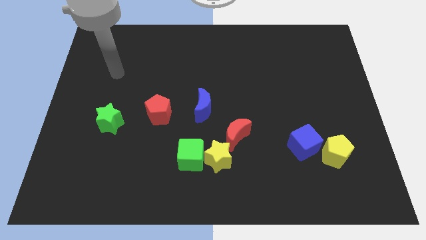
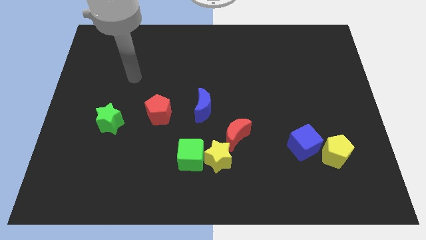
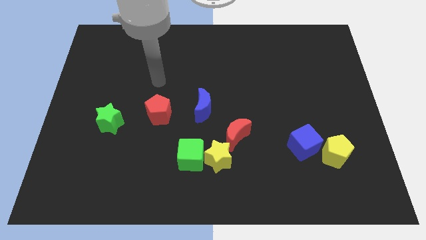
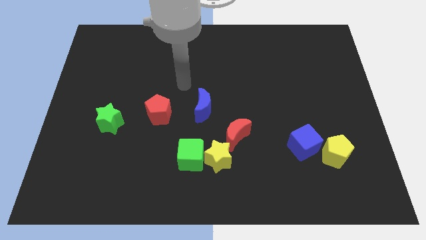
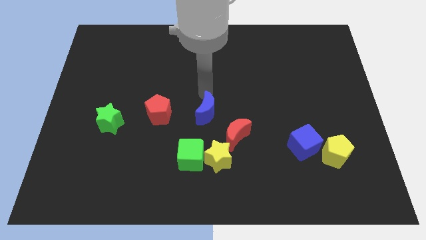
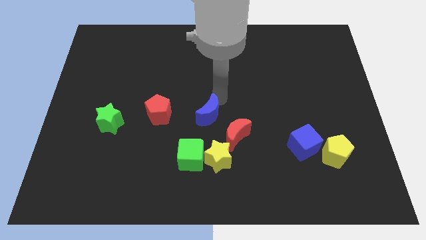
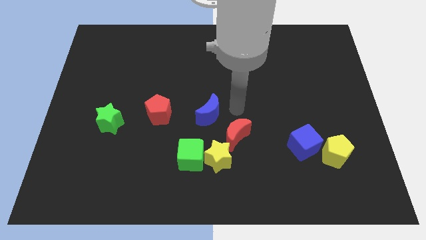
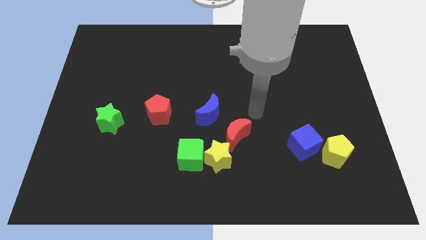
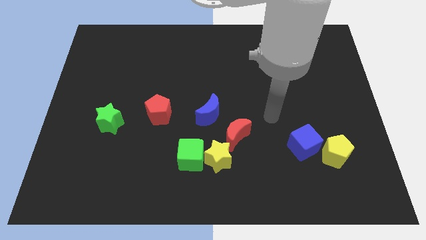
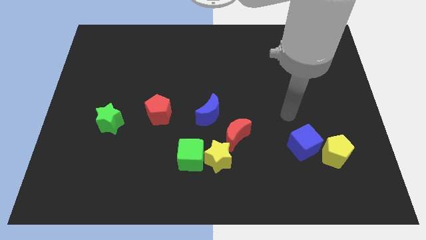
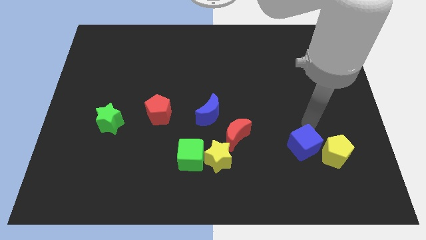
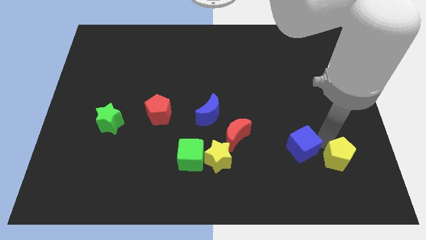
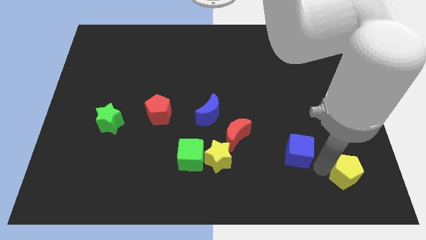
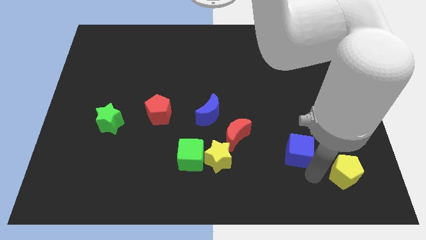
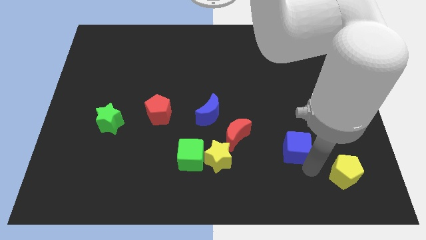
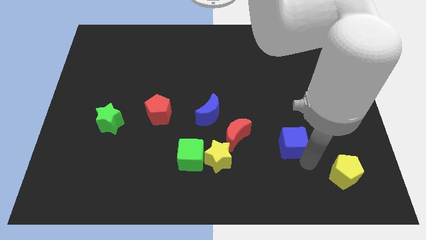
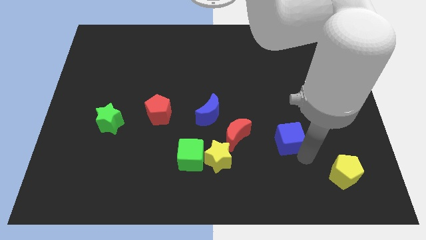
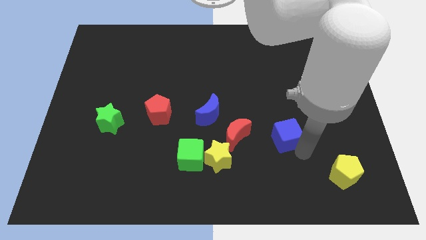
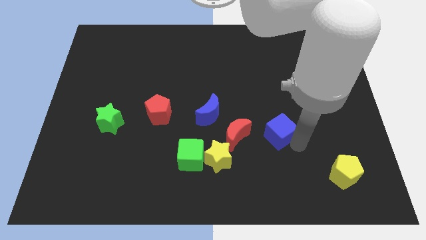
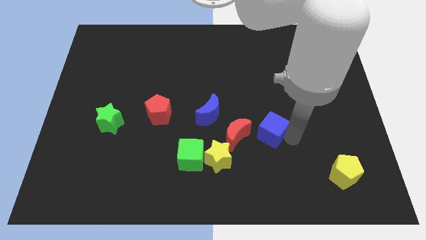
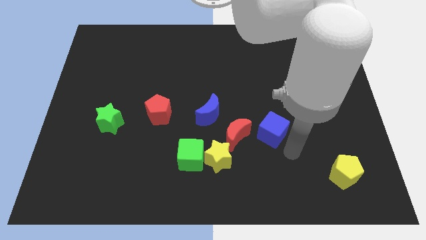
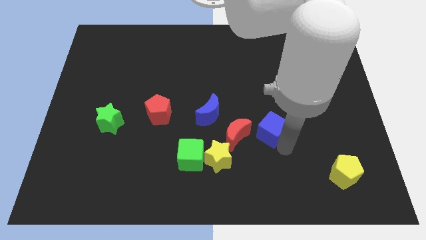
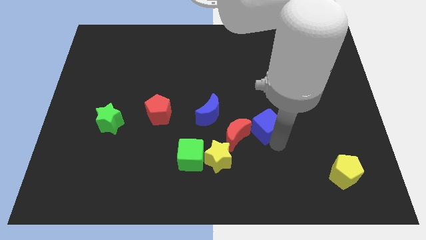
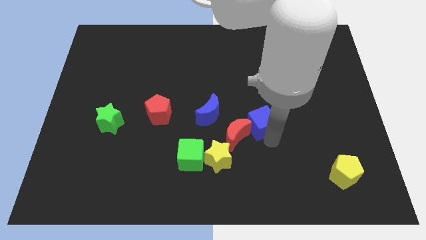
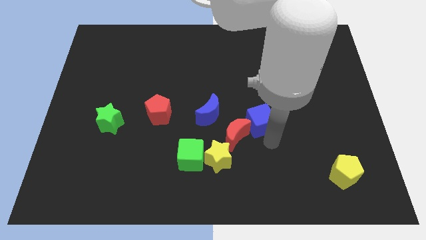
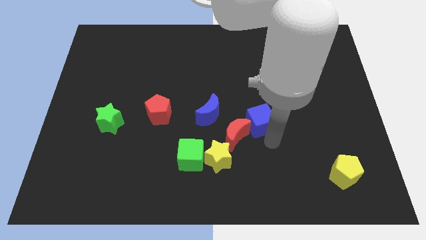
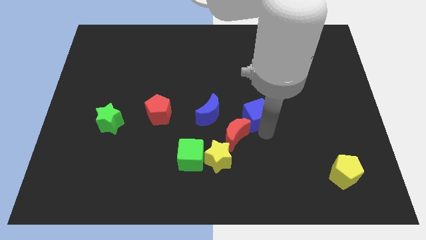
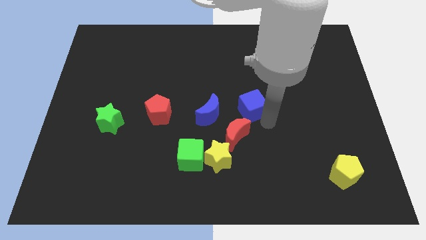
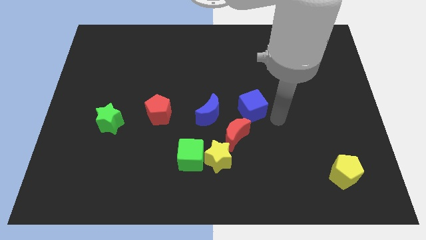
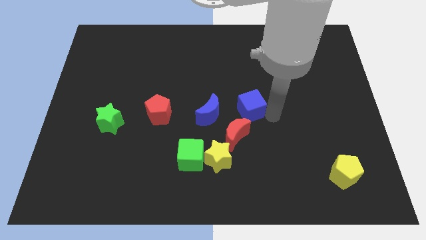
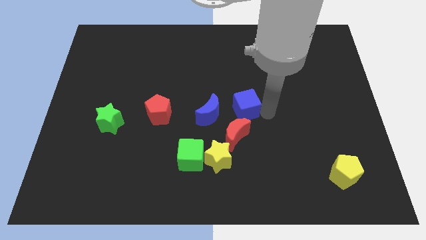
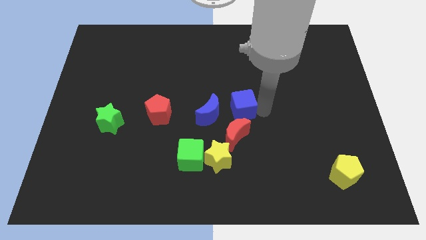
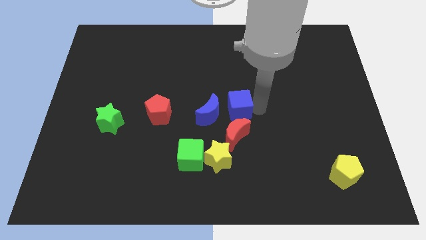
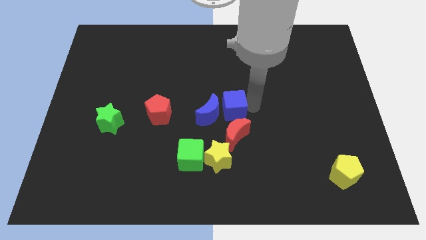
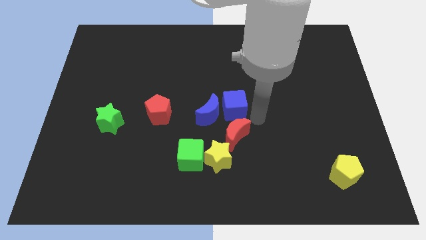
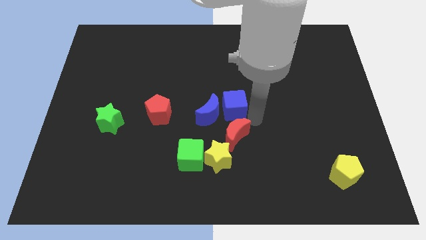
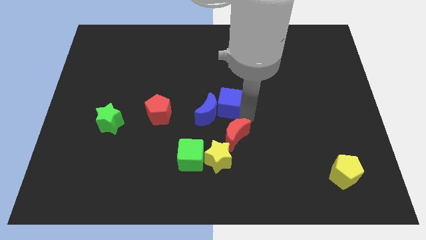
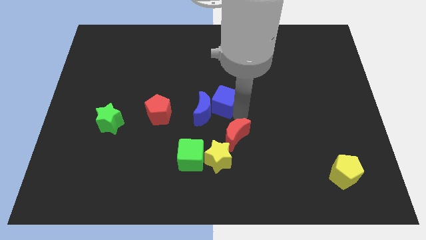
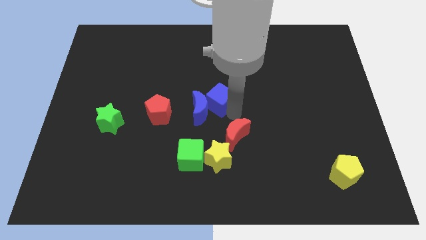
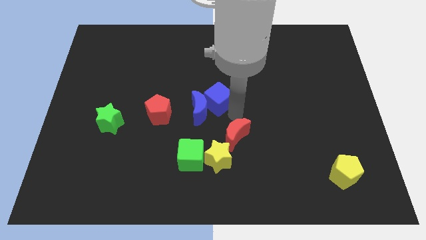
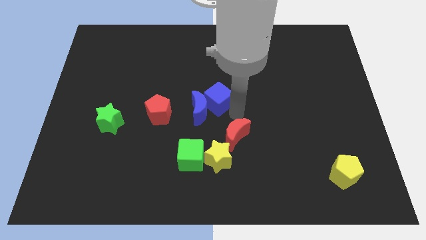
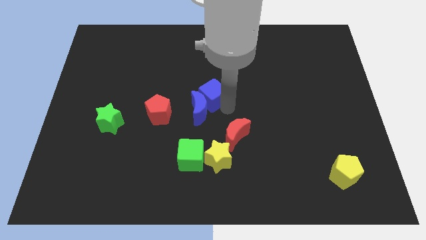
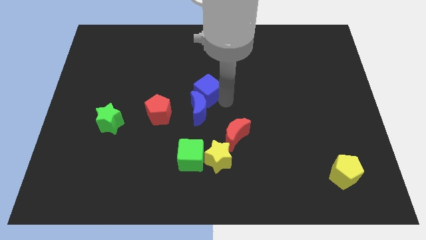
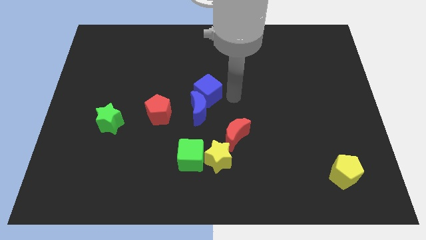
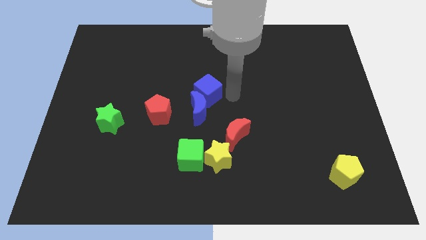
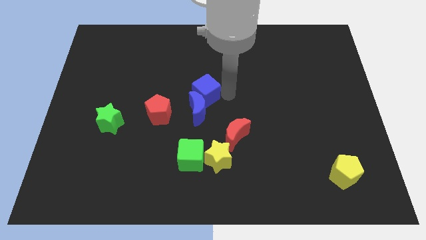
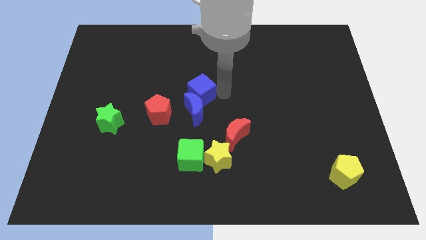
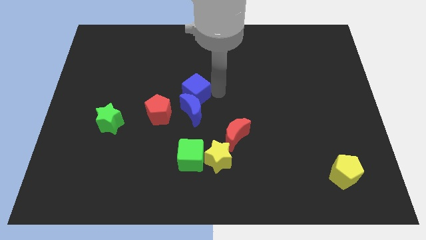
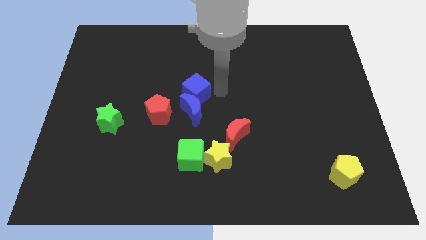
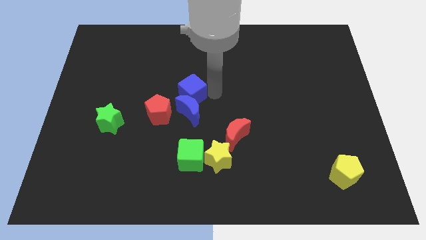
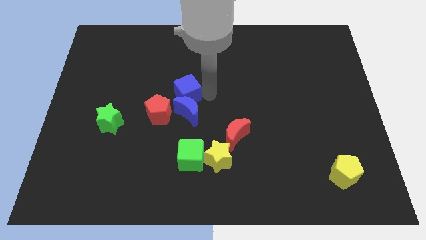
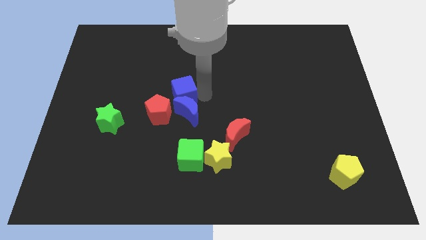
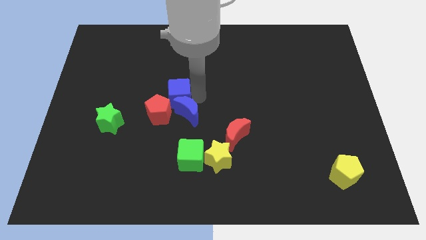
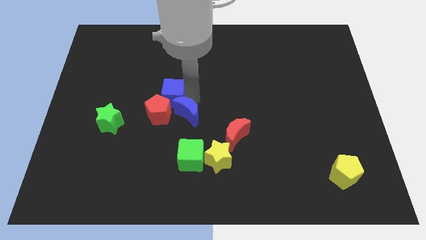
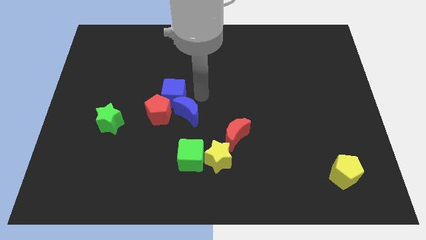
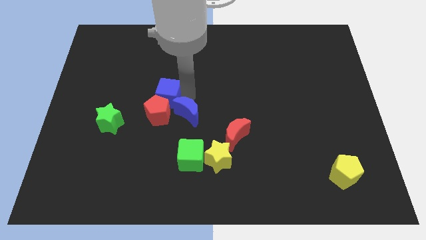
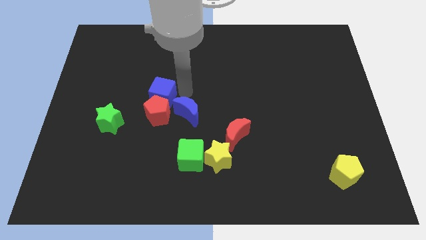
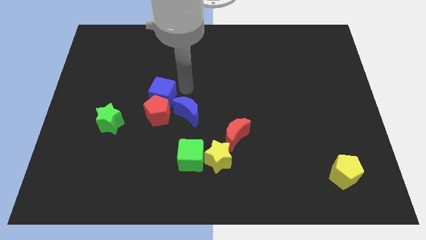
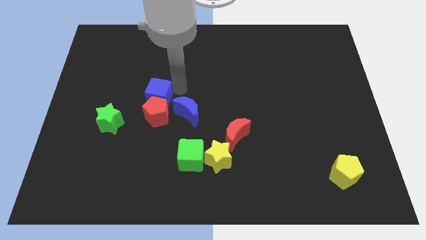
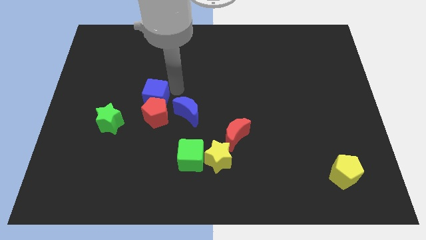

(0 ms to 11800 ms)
slide the blue cube to the top right side of the green star

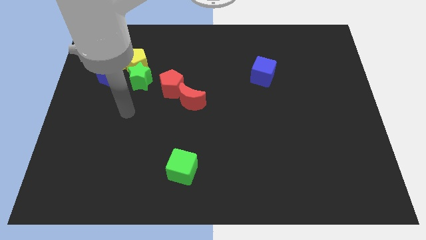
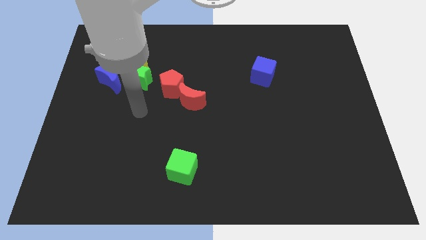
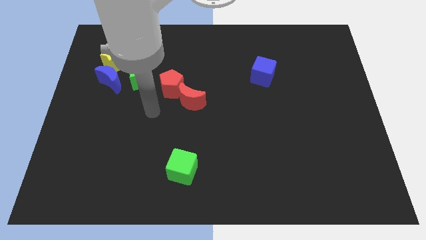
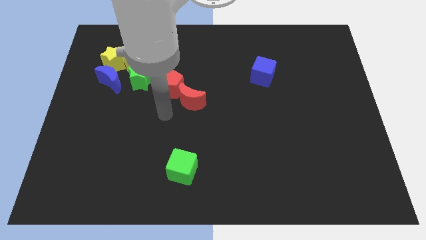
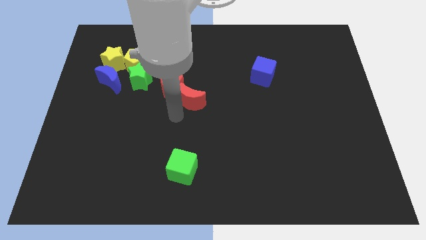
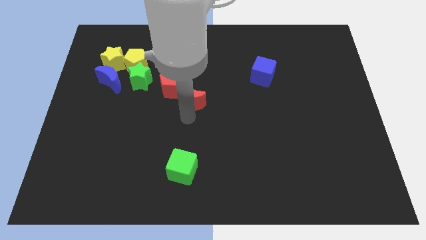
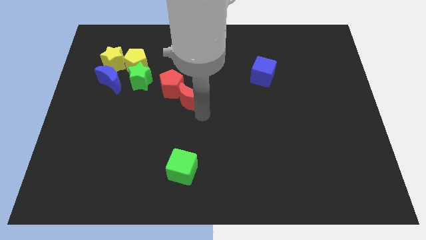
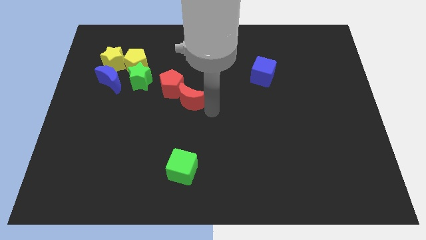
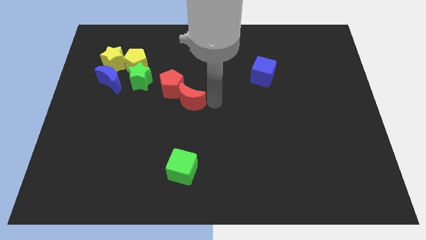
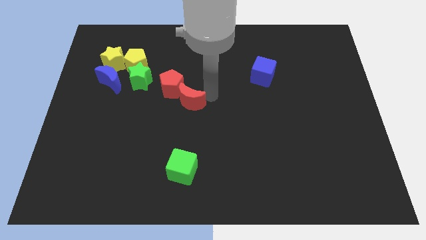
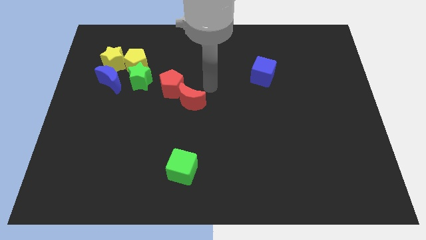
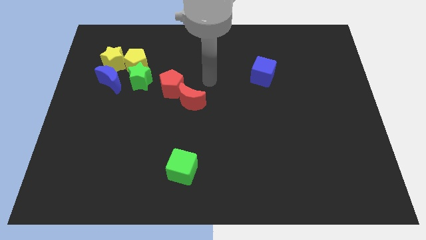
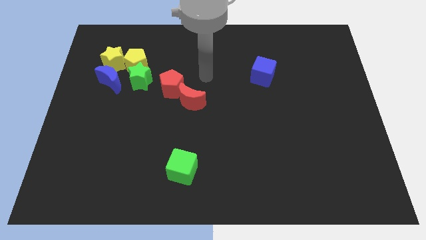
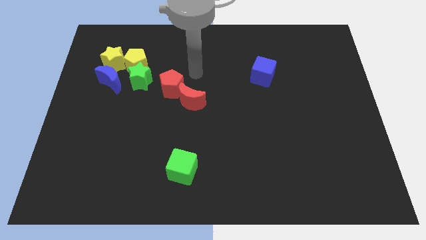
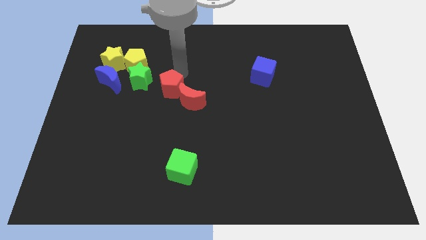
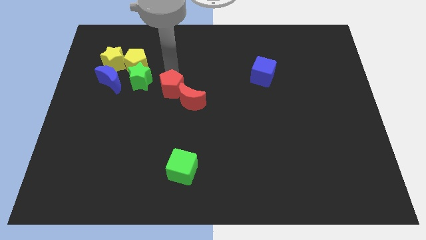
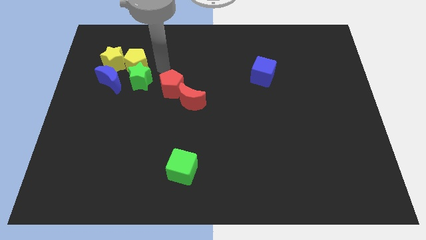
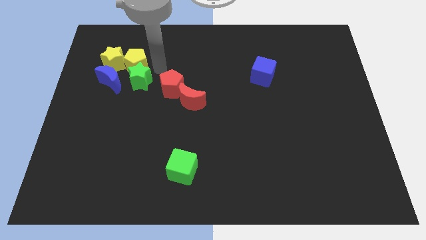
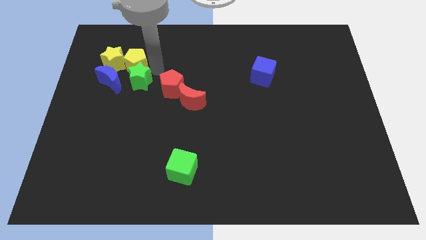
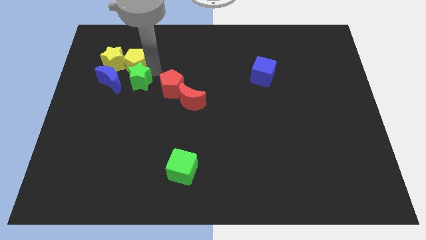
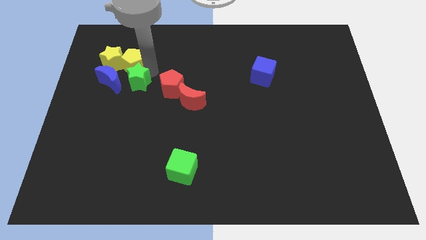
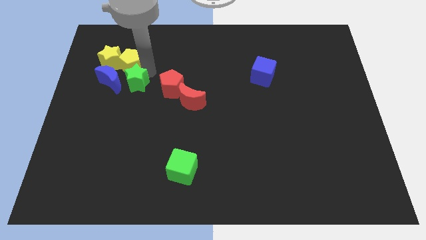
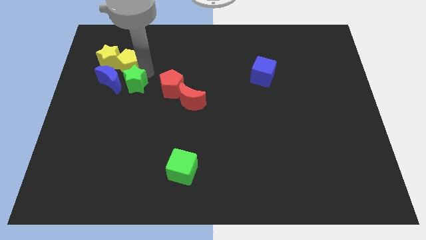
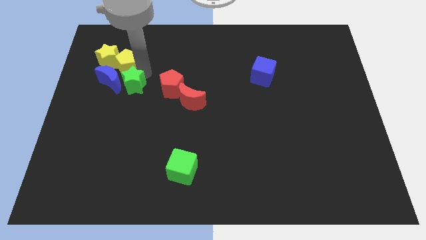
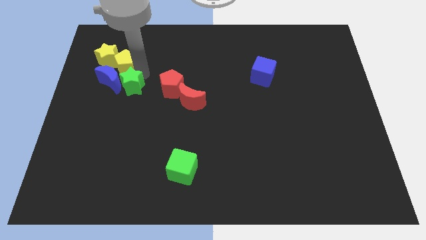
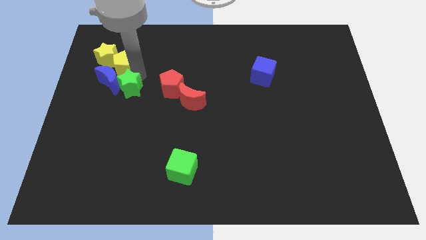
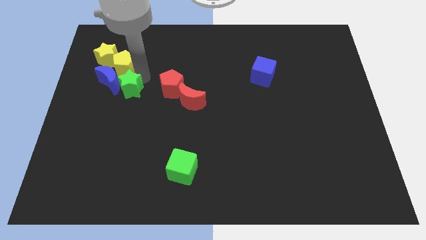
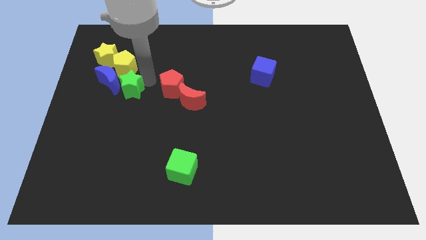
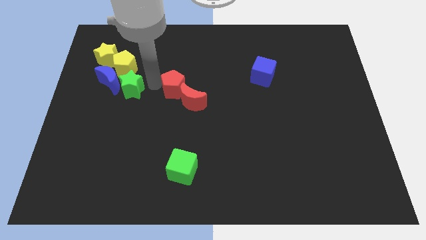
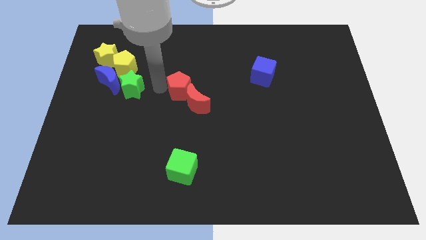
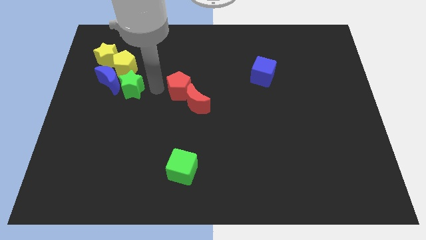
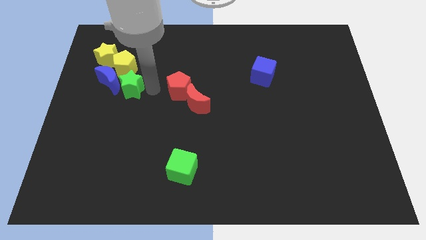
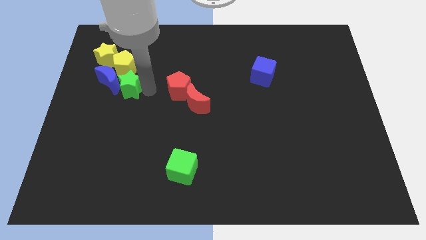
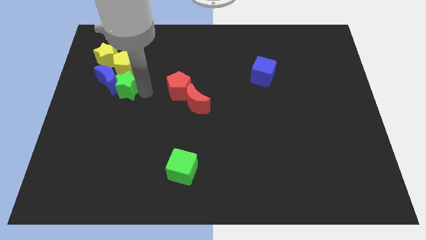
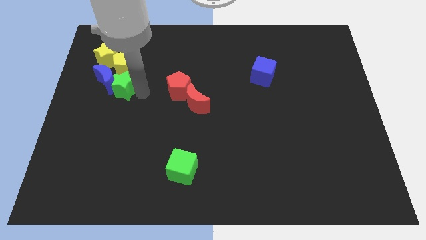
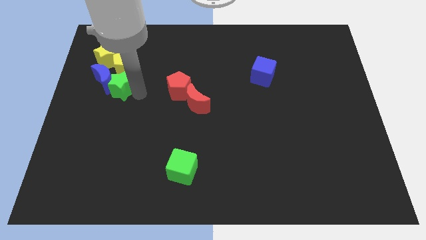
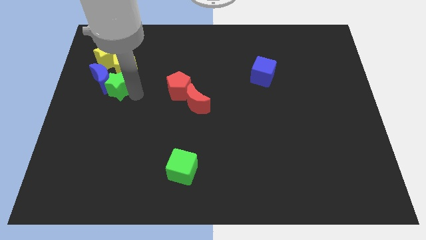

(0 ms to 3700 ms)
push the green star below the yellow star
